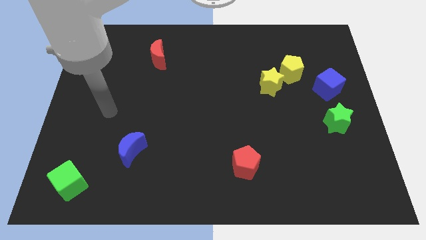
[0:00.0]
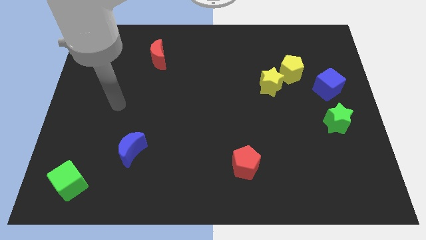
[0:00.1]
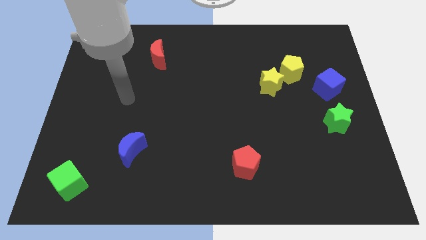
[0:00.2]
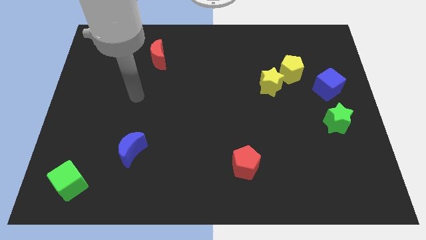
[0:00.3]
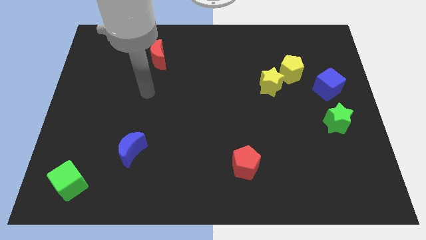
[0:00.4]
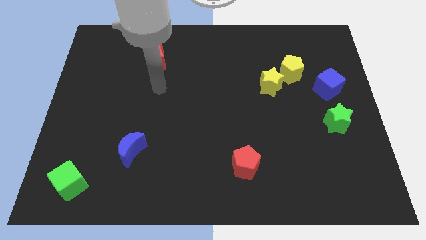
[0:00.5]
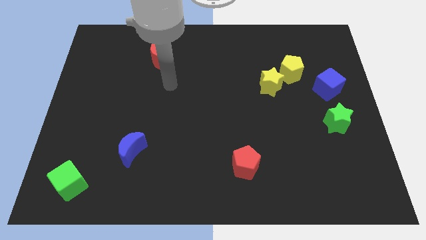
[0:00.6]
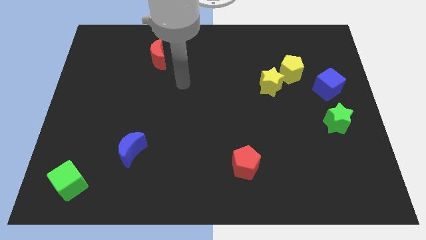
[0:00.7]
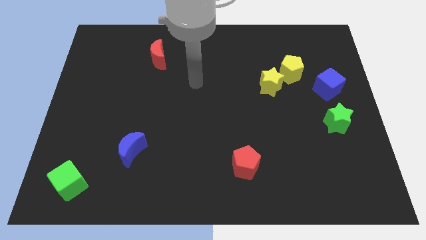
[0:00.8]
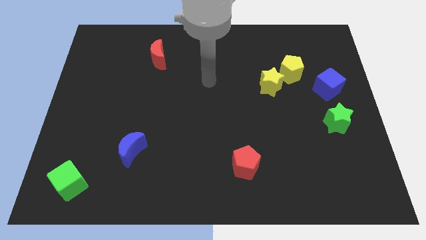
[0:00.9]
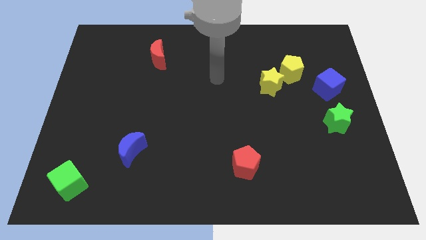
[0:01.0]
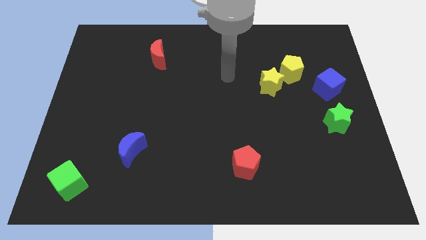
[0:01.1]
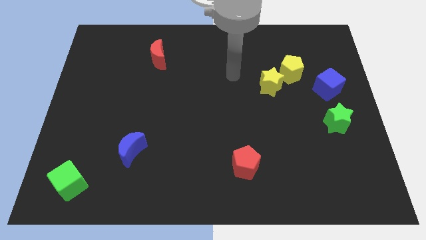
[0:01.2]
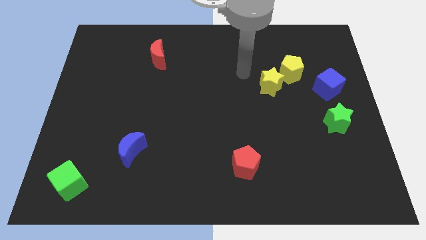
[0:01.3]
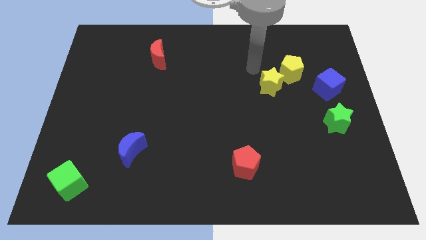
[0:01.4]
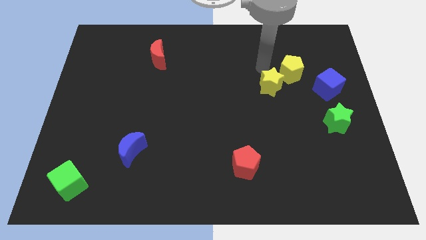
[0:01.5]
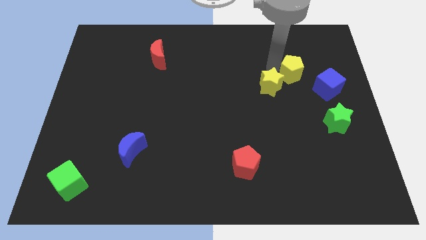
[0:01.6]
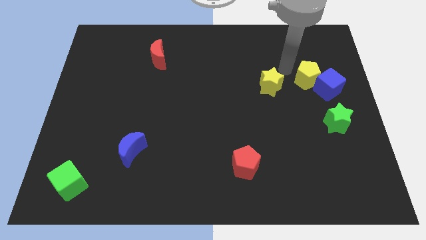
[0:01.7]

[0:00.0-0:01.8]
move the yellow star away from the yellow pentagon

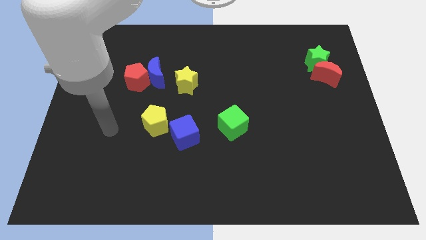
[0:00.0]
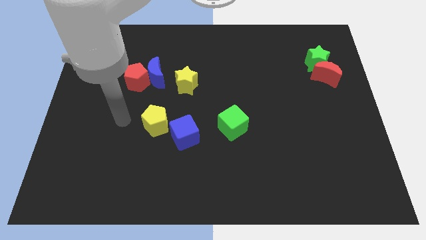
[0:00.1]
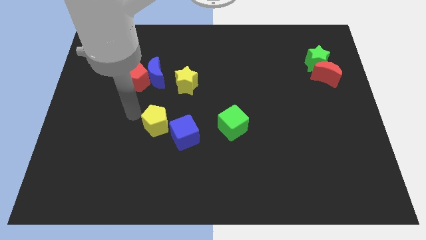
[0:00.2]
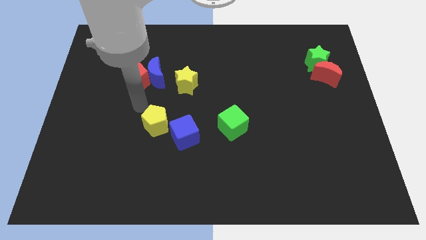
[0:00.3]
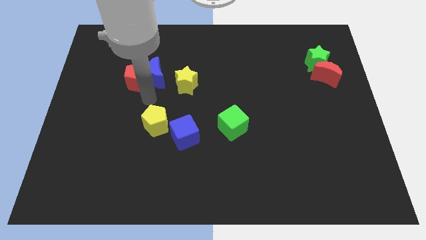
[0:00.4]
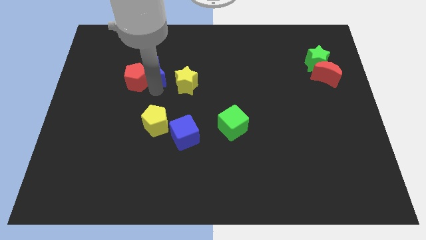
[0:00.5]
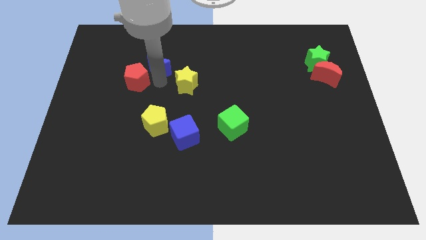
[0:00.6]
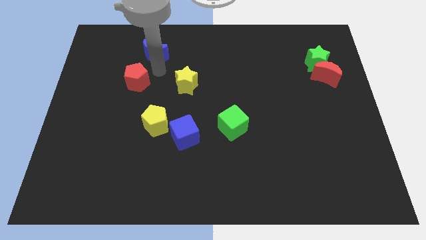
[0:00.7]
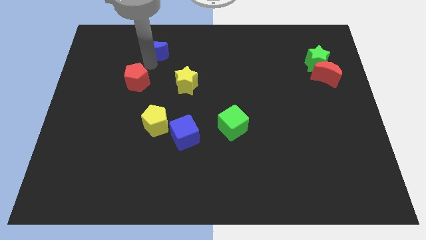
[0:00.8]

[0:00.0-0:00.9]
separate the red pentagon from the blue moon

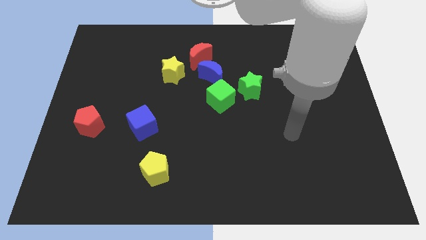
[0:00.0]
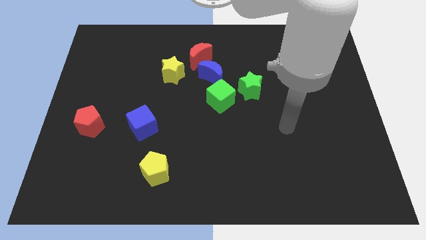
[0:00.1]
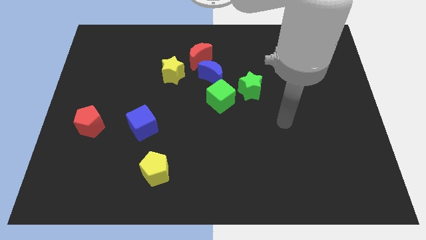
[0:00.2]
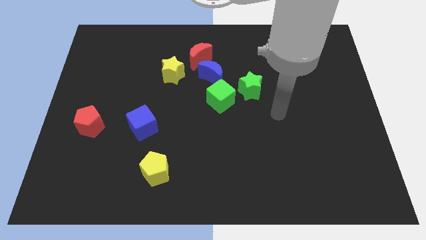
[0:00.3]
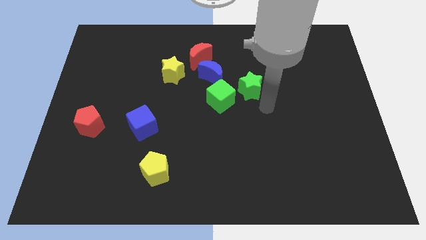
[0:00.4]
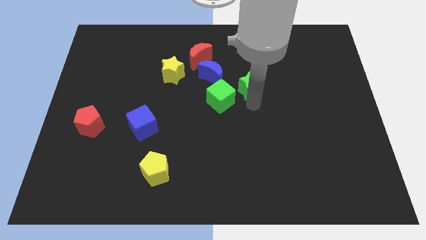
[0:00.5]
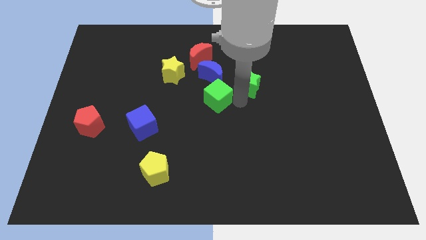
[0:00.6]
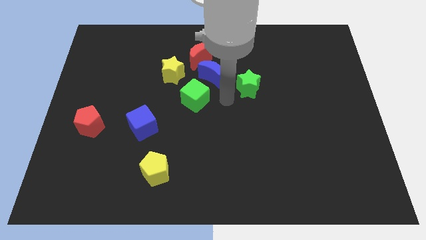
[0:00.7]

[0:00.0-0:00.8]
separate the green star from the green cube

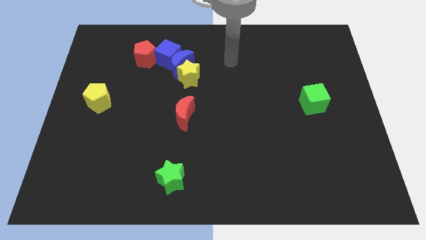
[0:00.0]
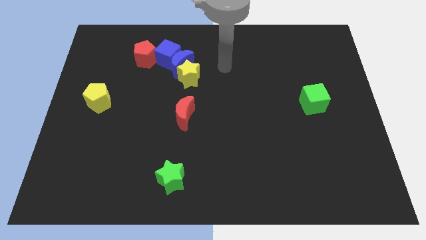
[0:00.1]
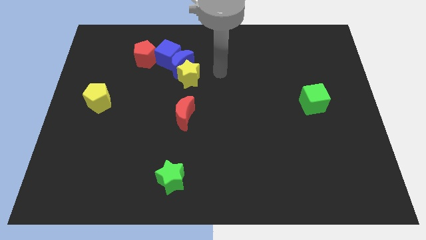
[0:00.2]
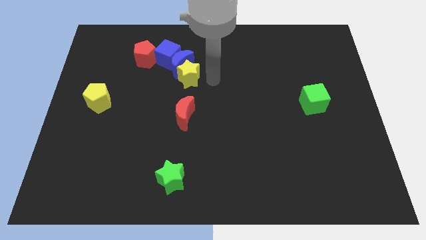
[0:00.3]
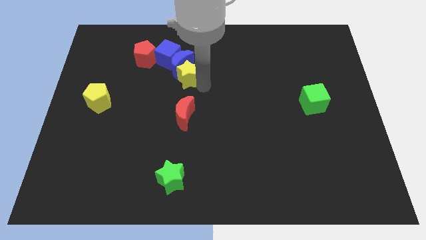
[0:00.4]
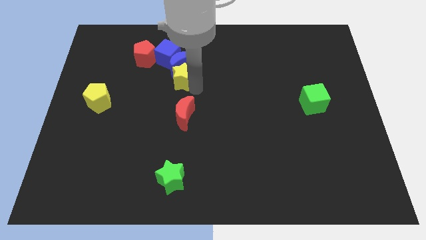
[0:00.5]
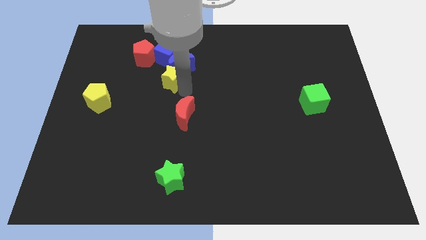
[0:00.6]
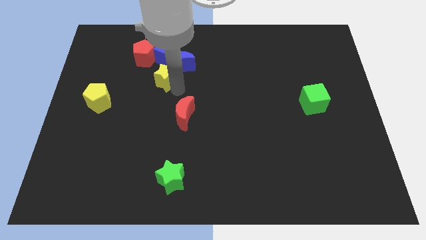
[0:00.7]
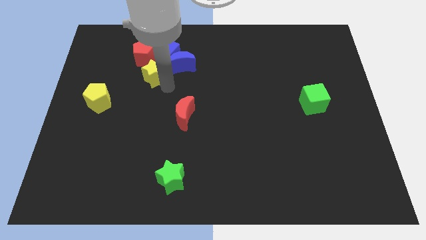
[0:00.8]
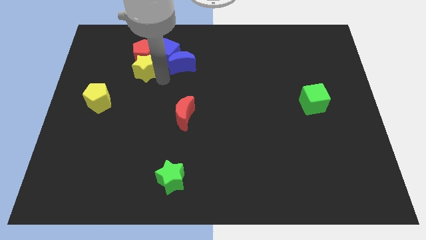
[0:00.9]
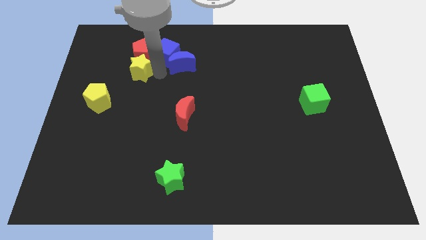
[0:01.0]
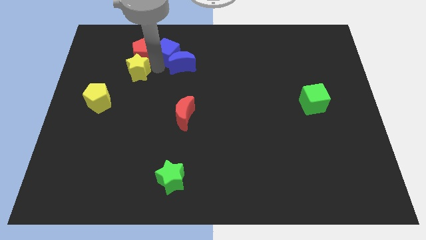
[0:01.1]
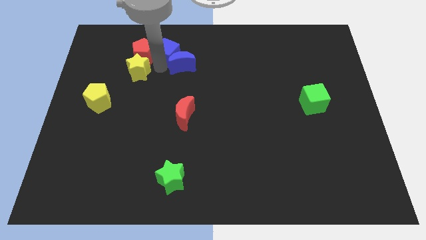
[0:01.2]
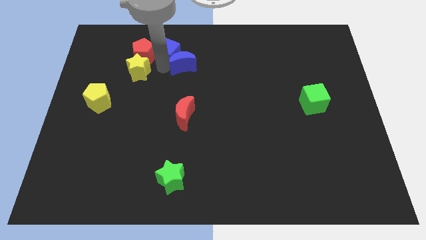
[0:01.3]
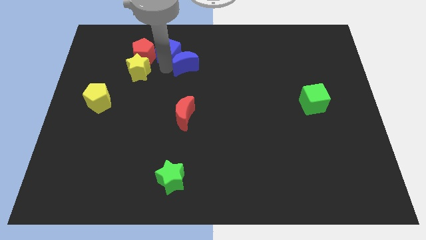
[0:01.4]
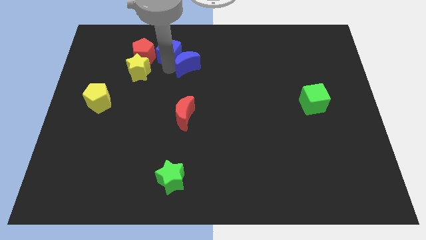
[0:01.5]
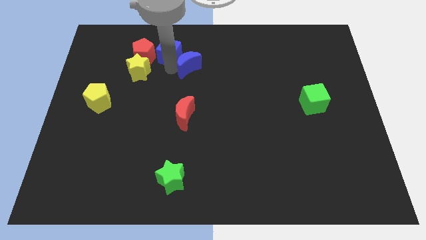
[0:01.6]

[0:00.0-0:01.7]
move the blue moon away from the clump

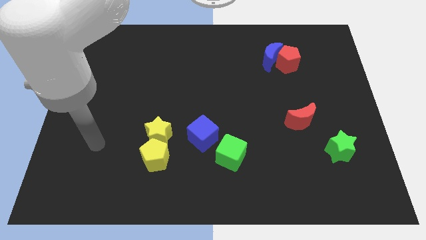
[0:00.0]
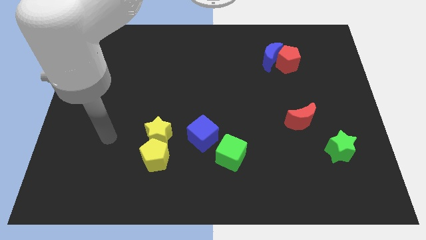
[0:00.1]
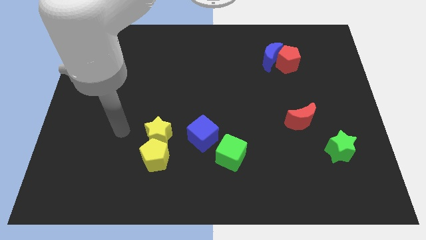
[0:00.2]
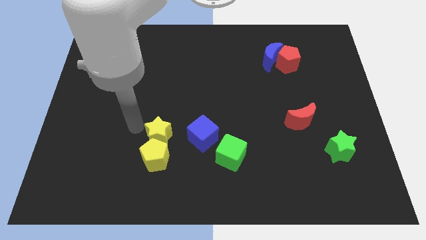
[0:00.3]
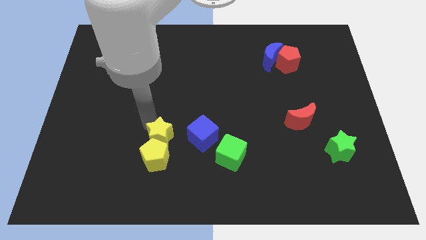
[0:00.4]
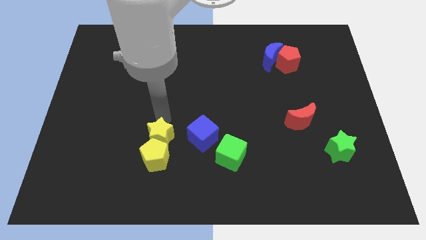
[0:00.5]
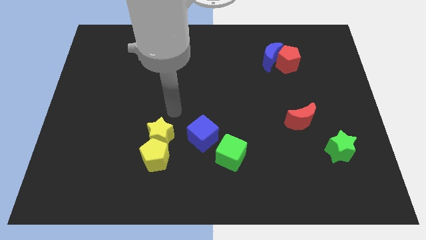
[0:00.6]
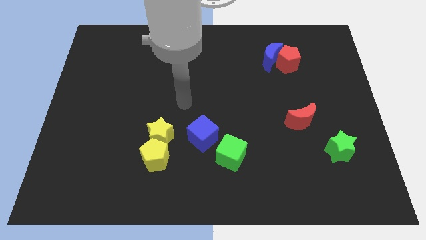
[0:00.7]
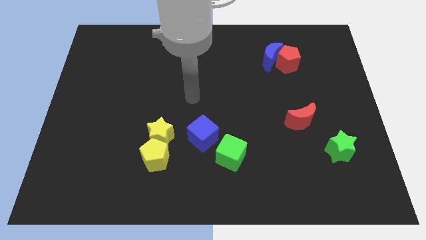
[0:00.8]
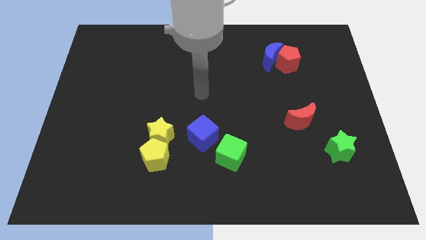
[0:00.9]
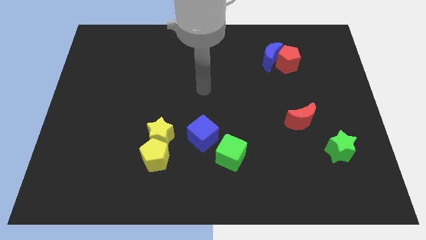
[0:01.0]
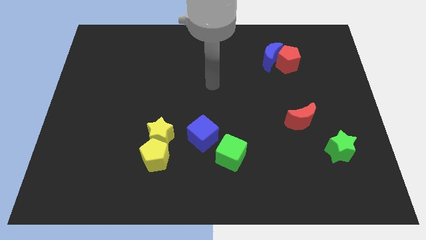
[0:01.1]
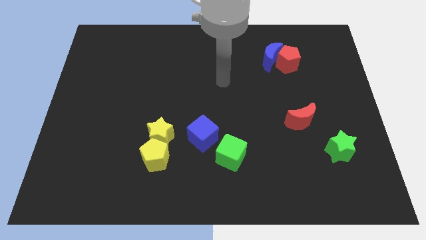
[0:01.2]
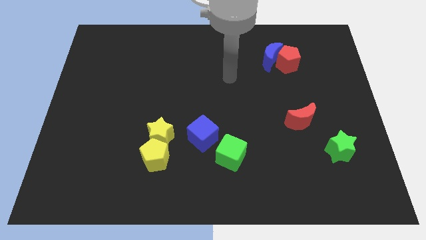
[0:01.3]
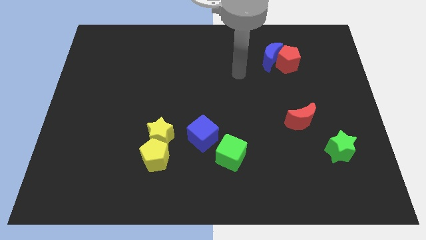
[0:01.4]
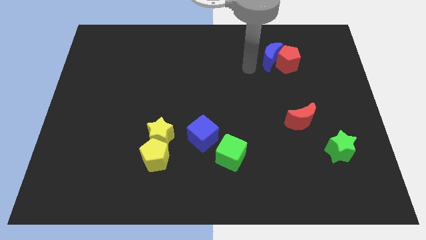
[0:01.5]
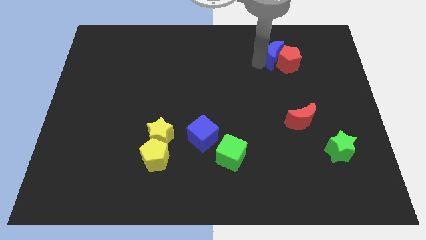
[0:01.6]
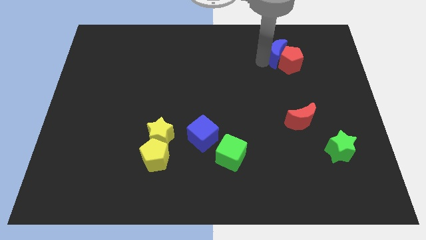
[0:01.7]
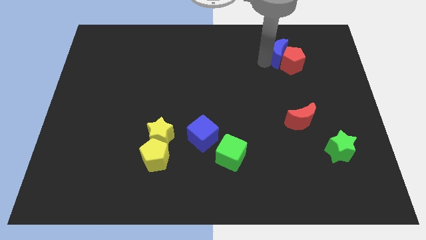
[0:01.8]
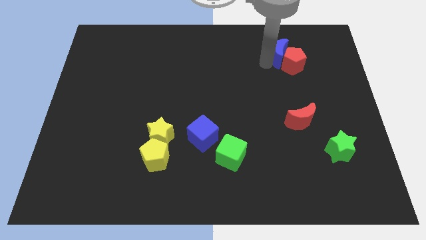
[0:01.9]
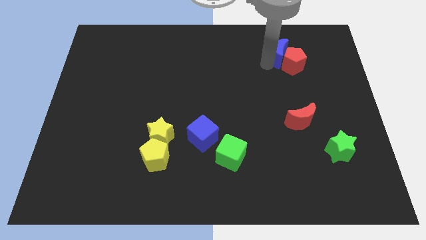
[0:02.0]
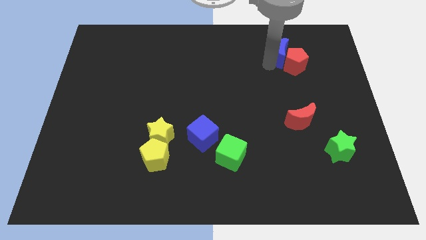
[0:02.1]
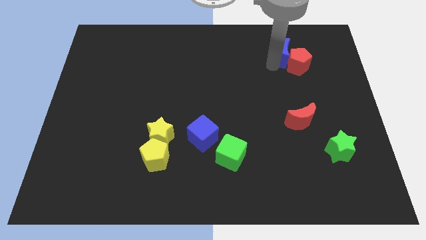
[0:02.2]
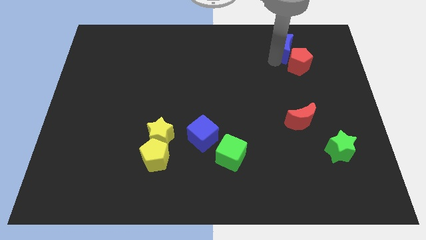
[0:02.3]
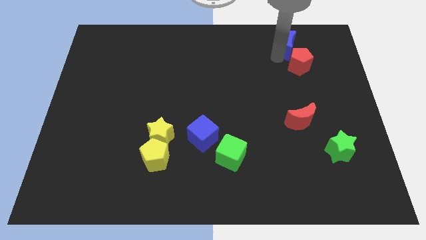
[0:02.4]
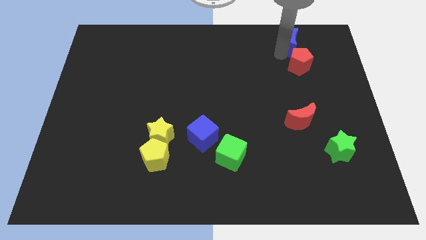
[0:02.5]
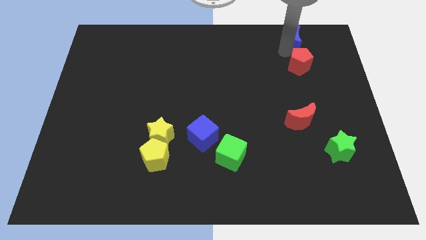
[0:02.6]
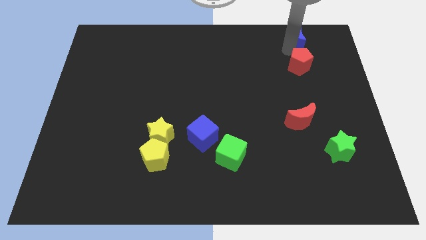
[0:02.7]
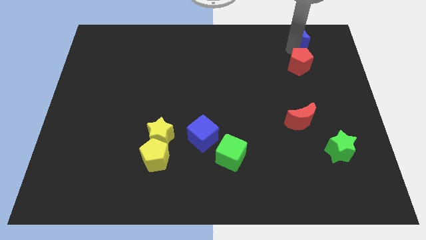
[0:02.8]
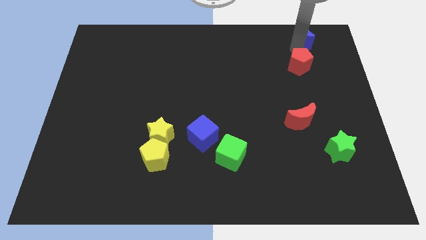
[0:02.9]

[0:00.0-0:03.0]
pull the red pentagon apart from the blue moon

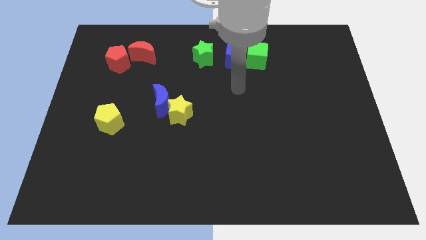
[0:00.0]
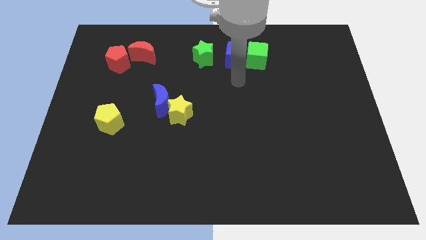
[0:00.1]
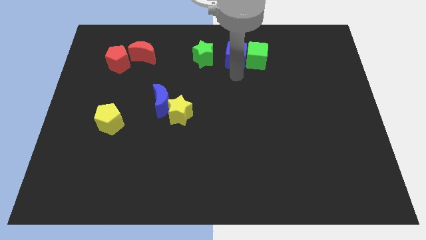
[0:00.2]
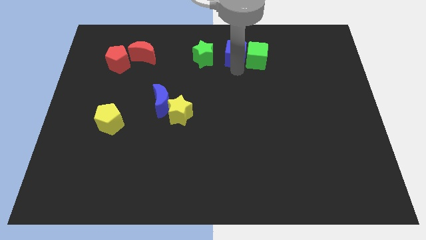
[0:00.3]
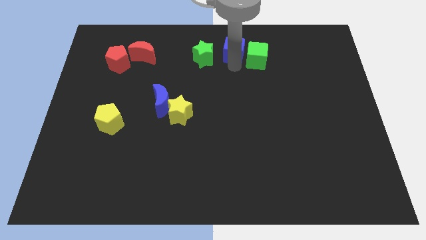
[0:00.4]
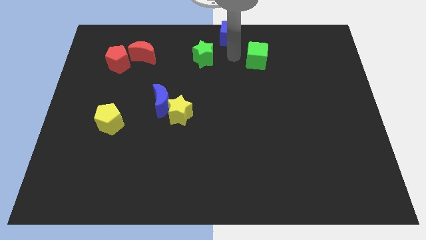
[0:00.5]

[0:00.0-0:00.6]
separate the green cube from the blue cube

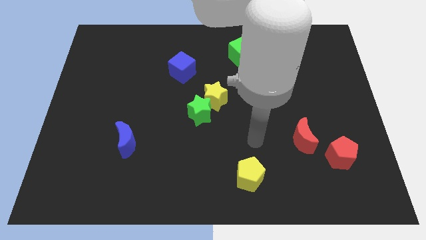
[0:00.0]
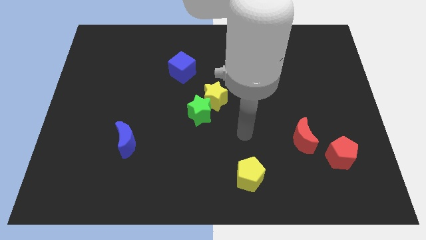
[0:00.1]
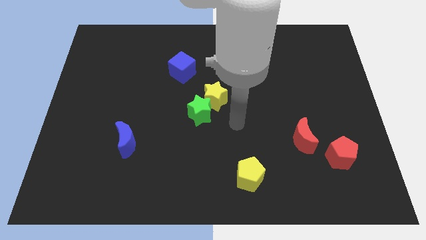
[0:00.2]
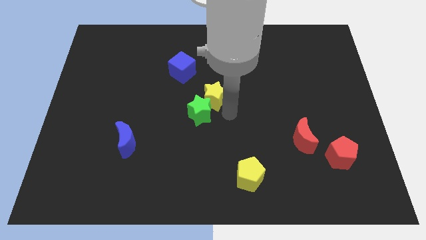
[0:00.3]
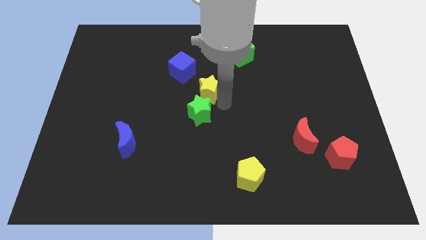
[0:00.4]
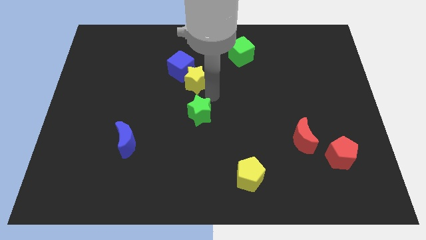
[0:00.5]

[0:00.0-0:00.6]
pull the green star apart from the yellow star
